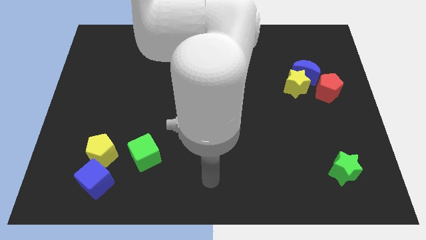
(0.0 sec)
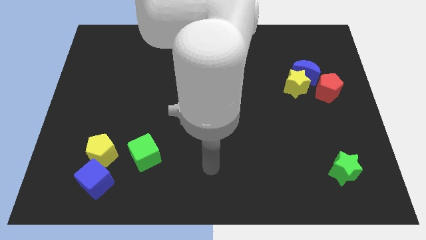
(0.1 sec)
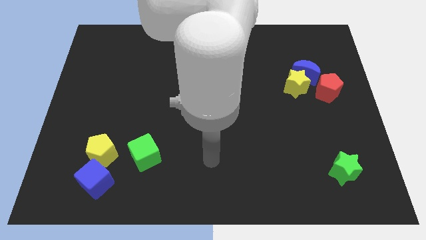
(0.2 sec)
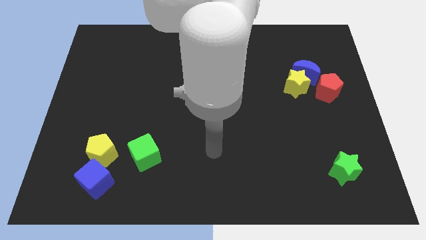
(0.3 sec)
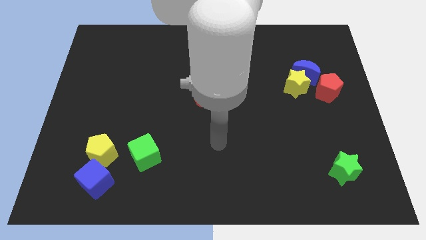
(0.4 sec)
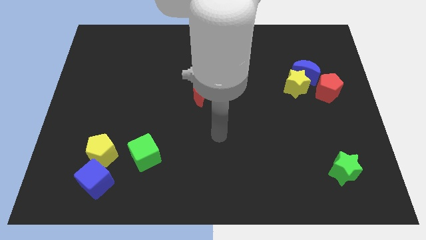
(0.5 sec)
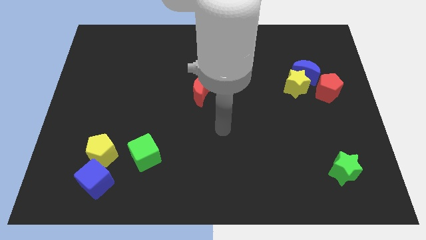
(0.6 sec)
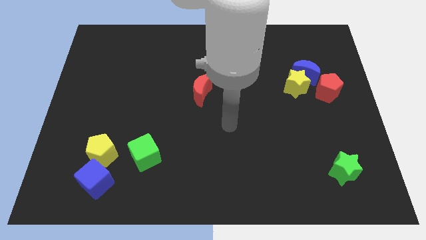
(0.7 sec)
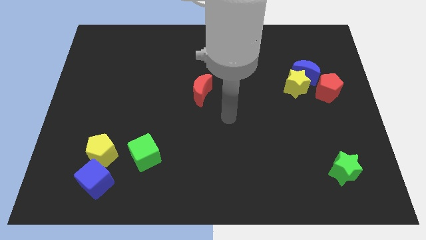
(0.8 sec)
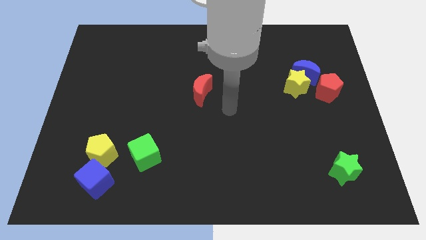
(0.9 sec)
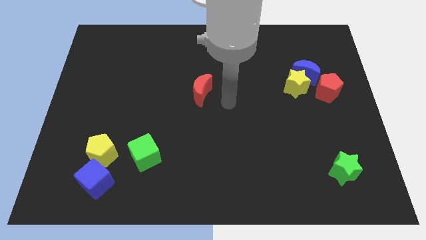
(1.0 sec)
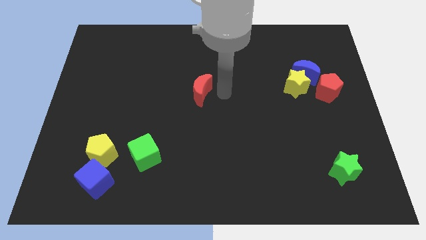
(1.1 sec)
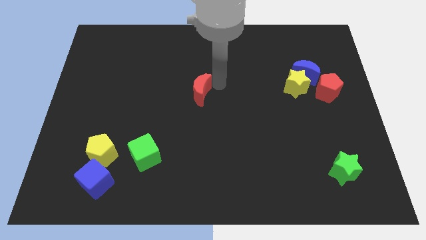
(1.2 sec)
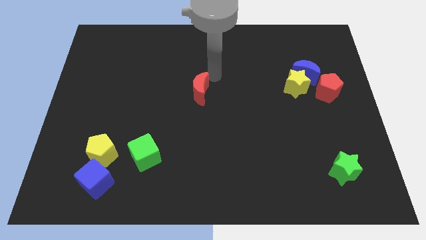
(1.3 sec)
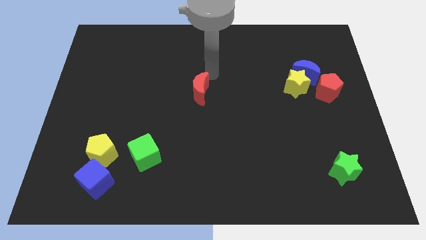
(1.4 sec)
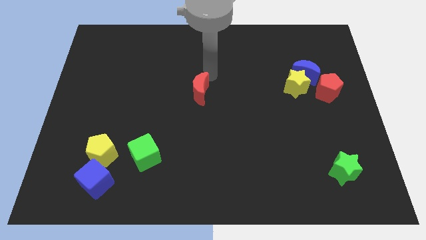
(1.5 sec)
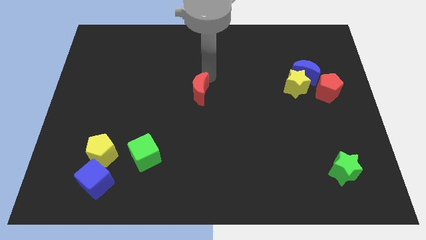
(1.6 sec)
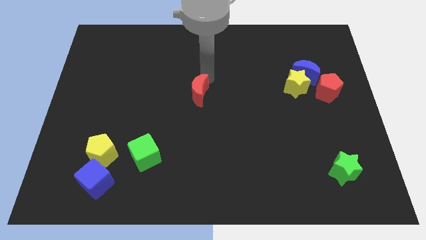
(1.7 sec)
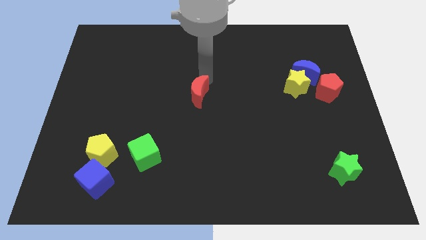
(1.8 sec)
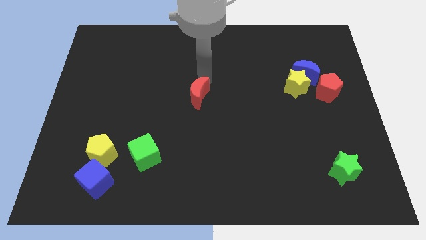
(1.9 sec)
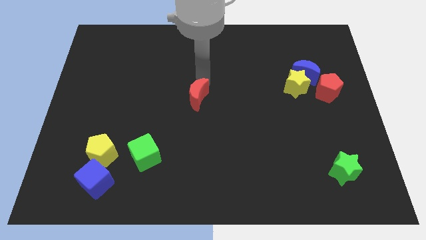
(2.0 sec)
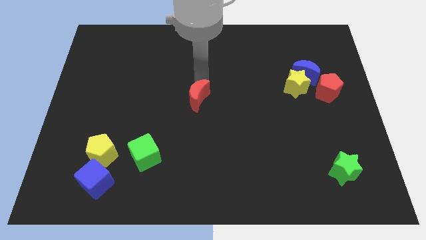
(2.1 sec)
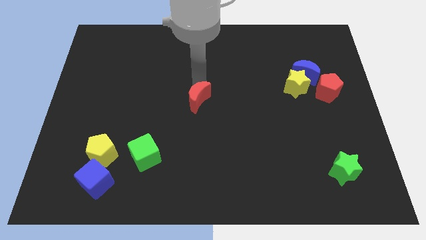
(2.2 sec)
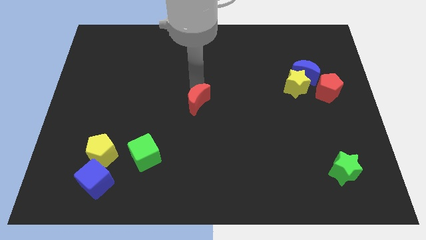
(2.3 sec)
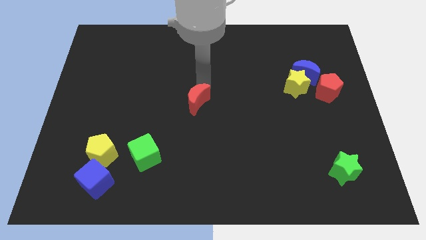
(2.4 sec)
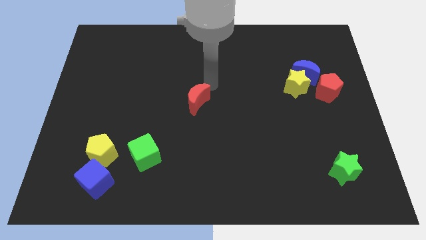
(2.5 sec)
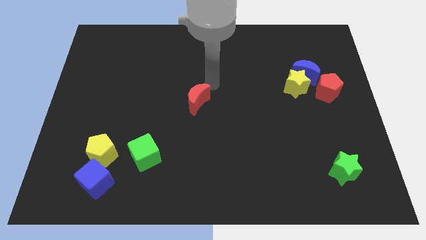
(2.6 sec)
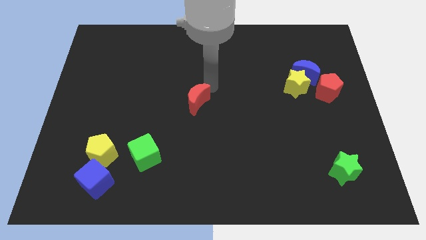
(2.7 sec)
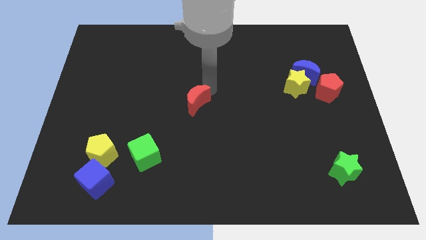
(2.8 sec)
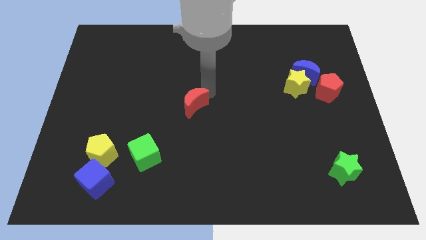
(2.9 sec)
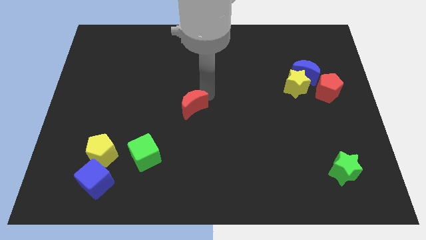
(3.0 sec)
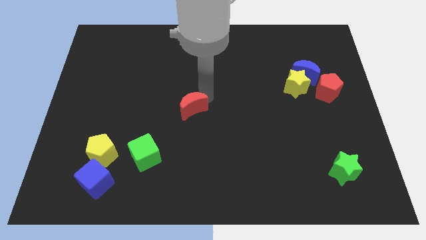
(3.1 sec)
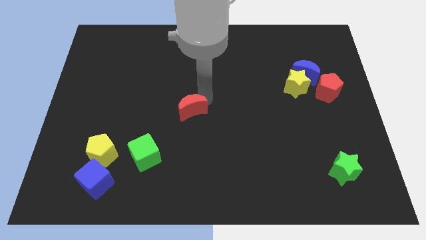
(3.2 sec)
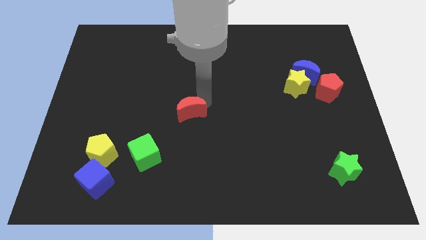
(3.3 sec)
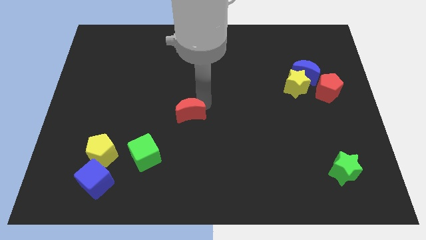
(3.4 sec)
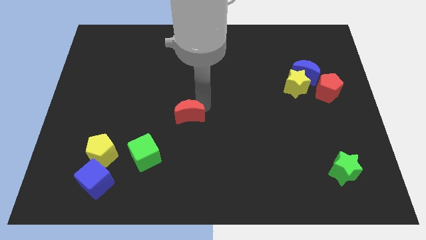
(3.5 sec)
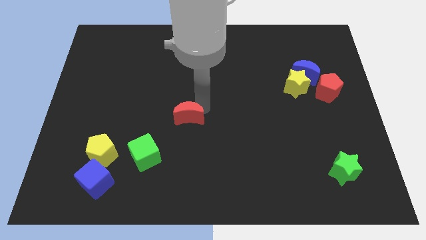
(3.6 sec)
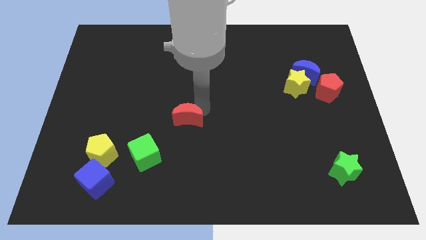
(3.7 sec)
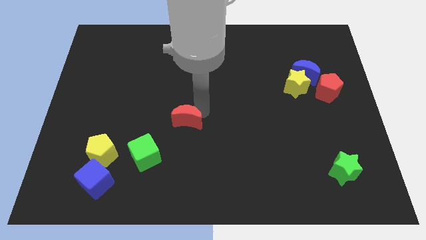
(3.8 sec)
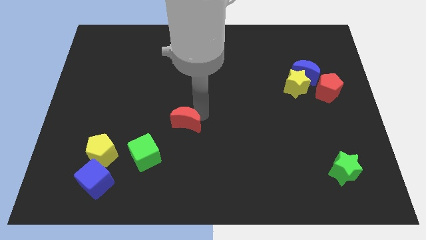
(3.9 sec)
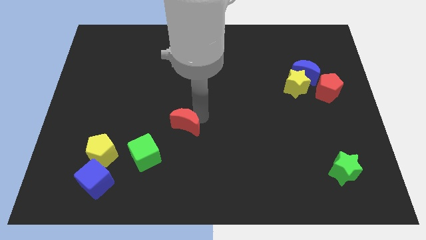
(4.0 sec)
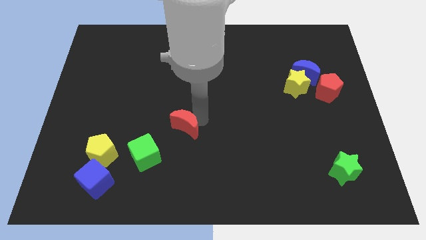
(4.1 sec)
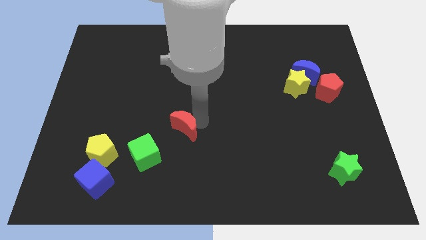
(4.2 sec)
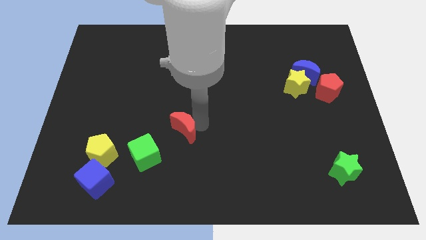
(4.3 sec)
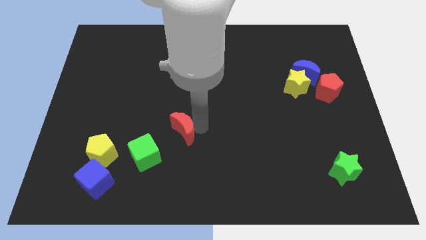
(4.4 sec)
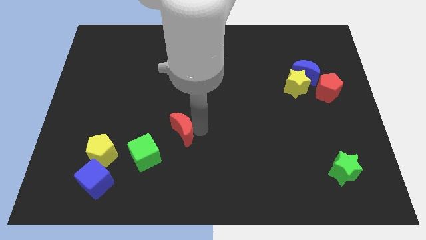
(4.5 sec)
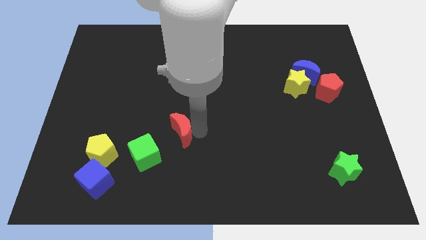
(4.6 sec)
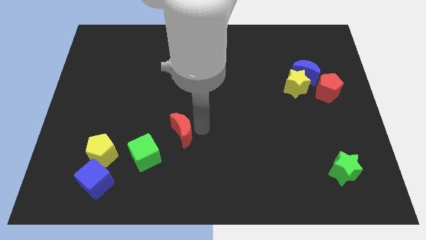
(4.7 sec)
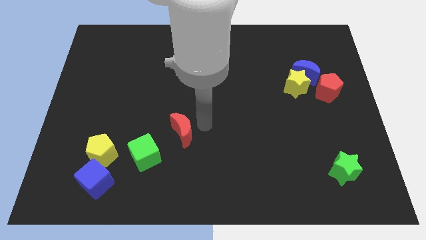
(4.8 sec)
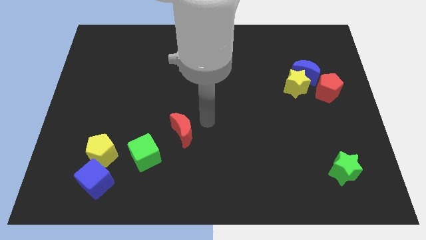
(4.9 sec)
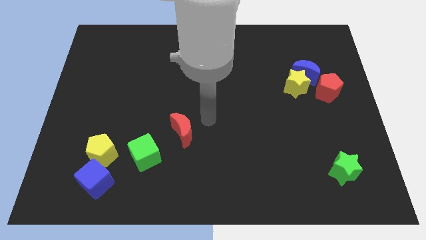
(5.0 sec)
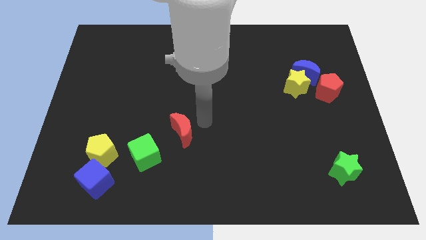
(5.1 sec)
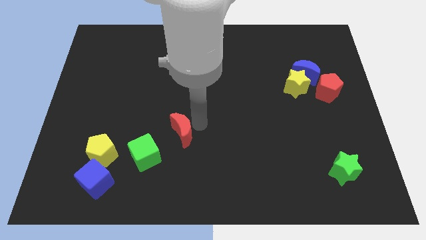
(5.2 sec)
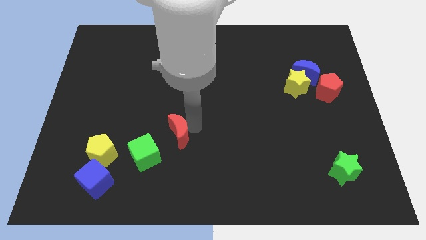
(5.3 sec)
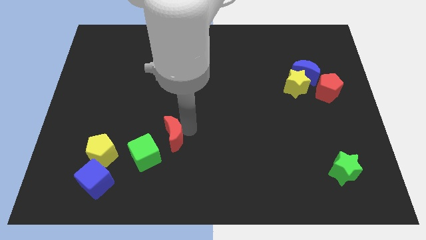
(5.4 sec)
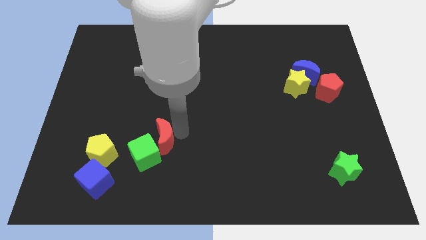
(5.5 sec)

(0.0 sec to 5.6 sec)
move the red moon next to the green cube

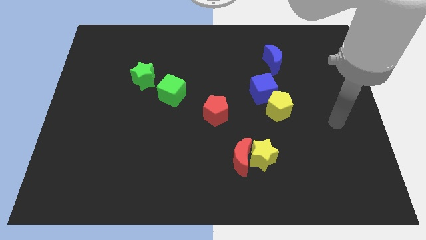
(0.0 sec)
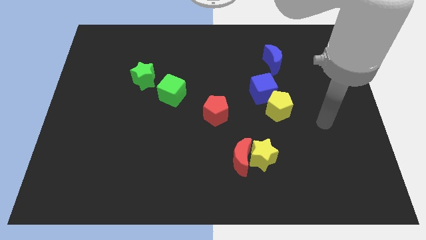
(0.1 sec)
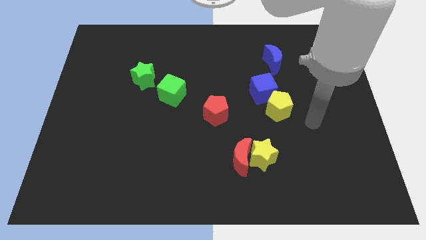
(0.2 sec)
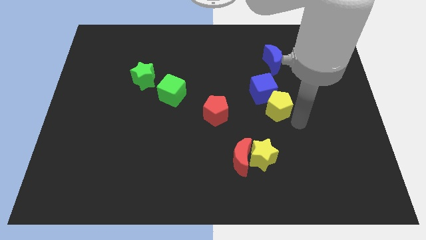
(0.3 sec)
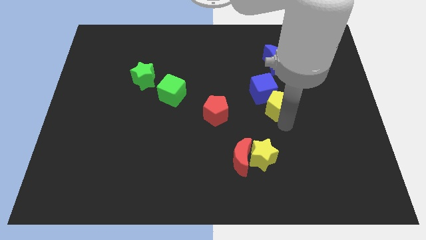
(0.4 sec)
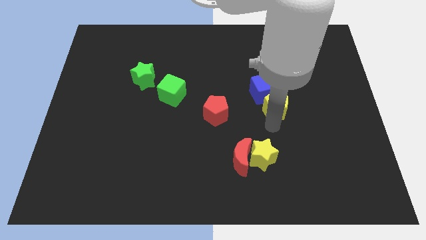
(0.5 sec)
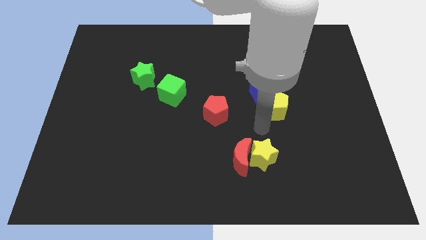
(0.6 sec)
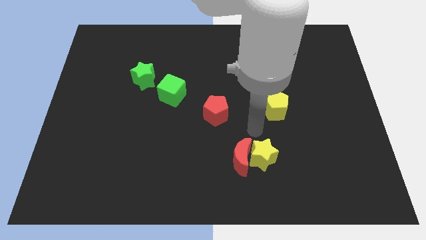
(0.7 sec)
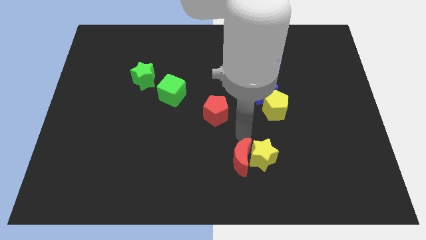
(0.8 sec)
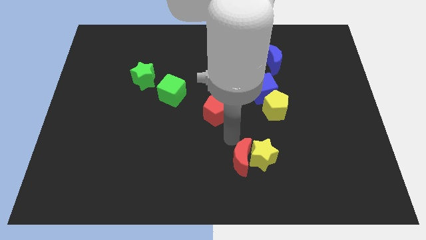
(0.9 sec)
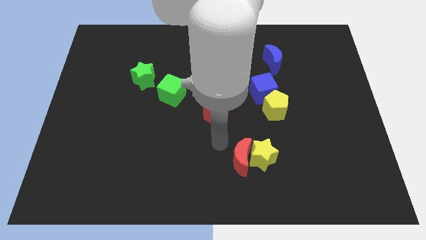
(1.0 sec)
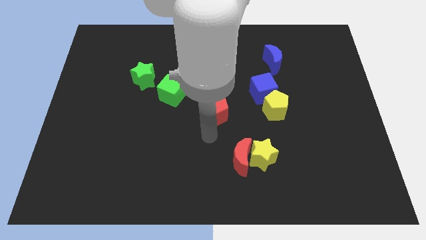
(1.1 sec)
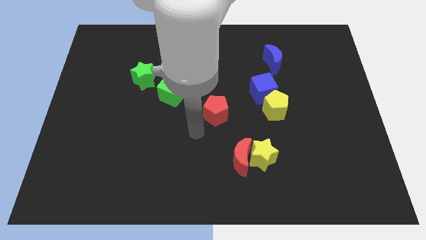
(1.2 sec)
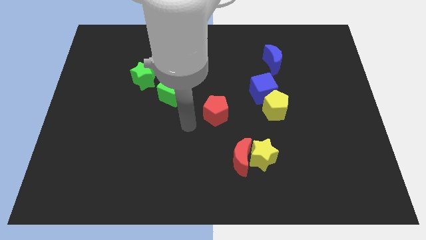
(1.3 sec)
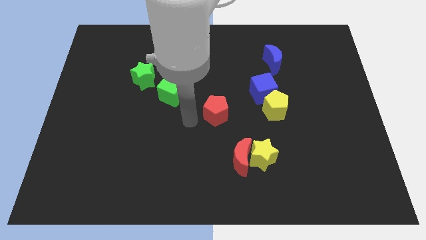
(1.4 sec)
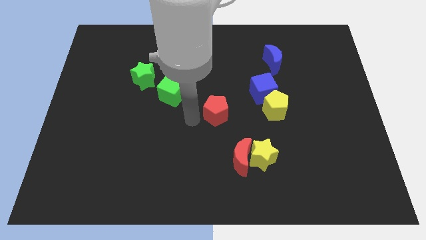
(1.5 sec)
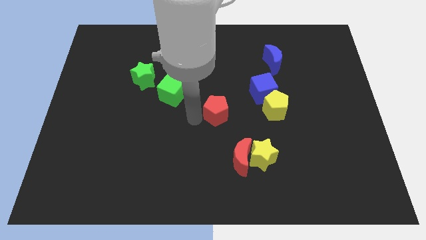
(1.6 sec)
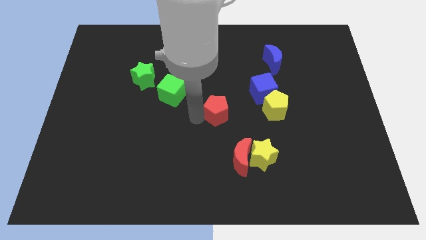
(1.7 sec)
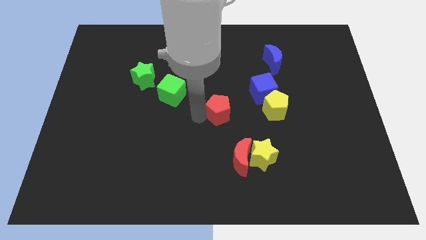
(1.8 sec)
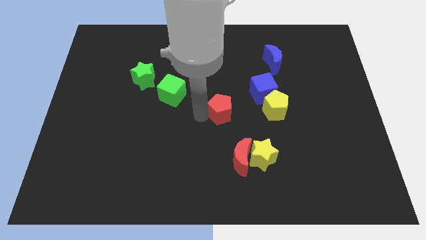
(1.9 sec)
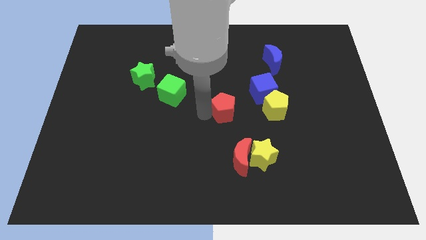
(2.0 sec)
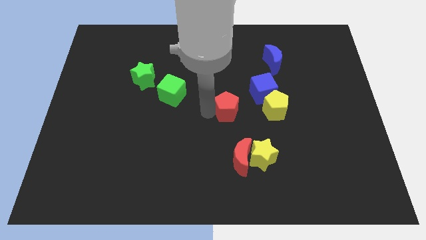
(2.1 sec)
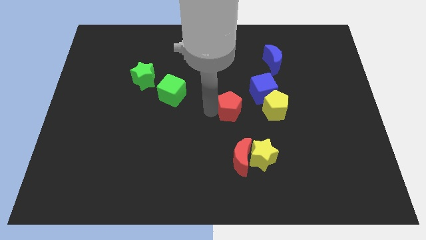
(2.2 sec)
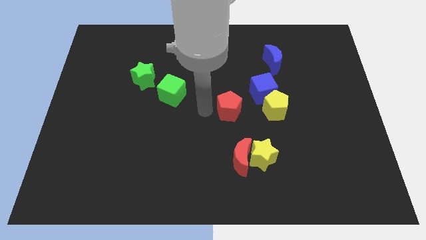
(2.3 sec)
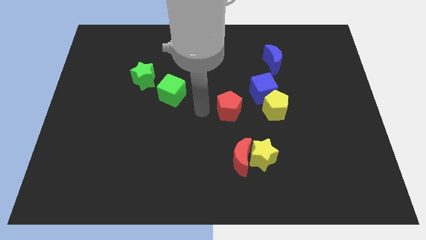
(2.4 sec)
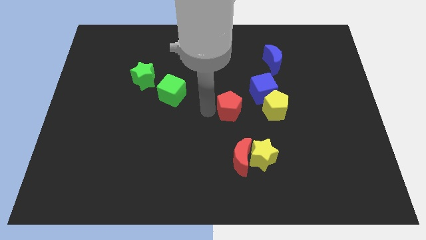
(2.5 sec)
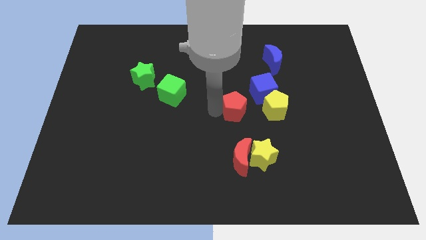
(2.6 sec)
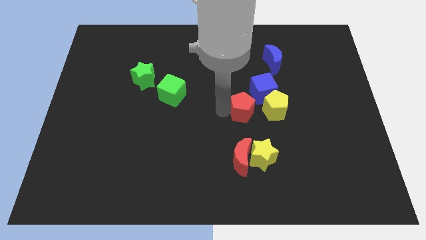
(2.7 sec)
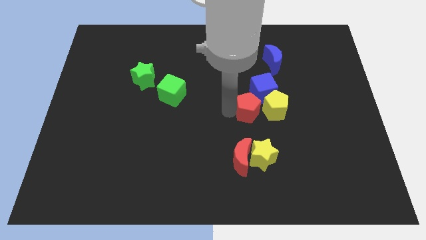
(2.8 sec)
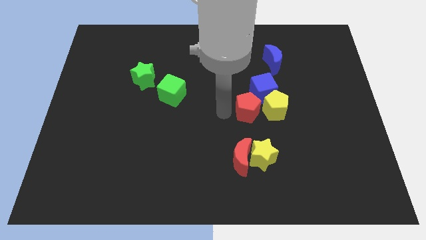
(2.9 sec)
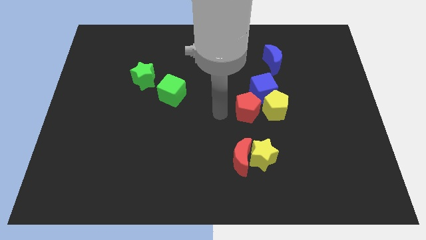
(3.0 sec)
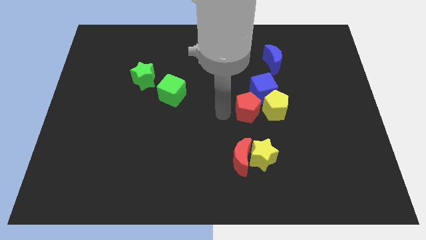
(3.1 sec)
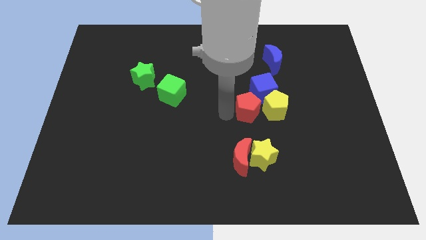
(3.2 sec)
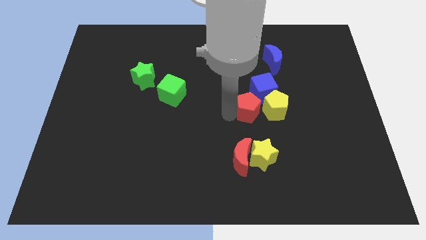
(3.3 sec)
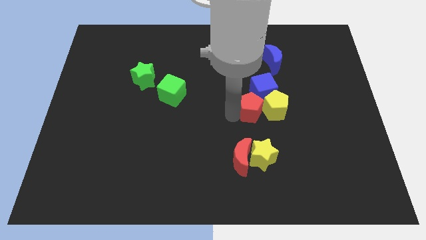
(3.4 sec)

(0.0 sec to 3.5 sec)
move the red pentagon next to the yellow pentagon
